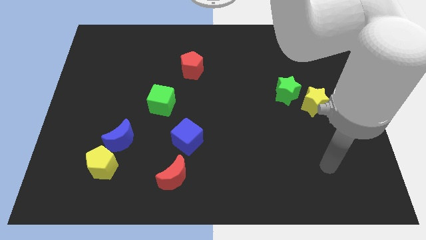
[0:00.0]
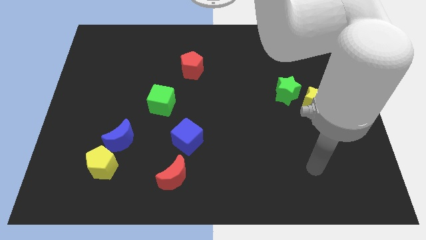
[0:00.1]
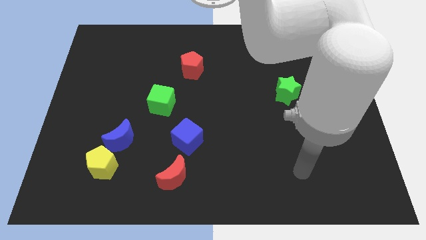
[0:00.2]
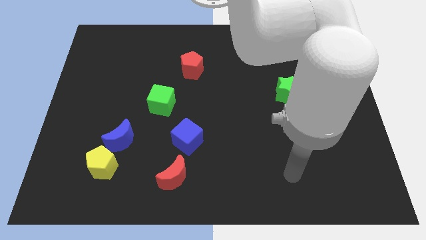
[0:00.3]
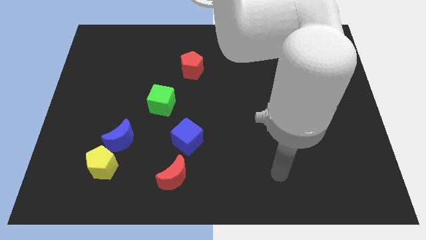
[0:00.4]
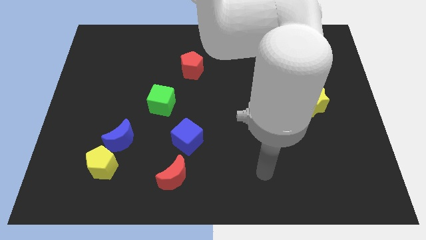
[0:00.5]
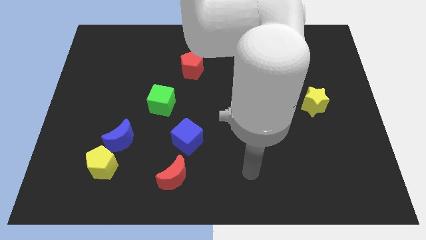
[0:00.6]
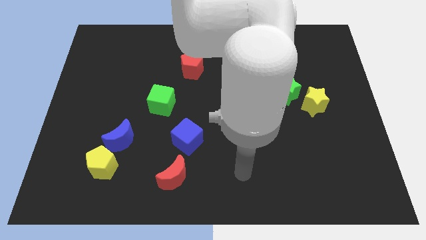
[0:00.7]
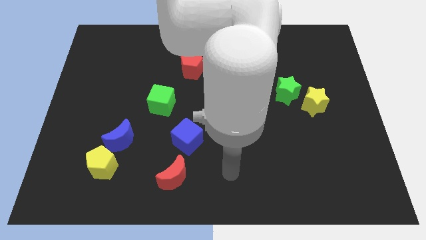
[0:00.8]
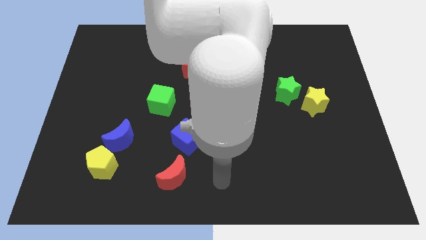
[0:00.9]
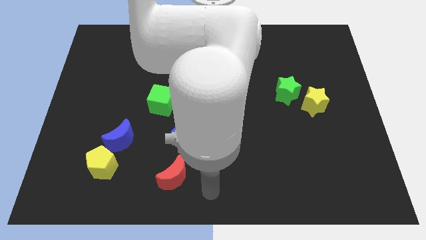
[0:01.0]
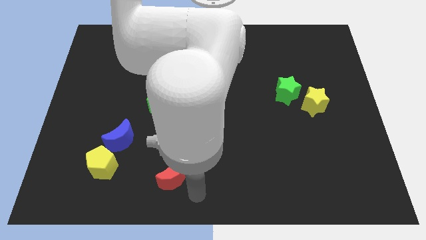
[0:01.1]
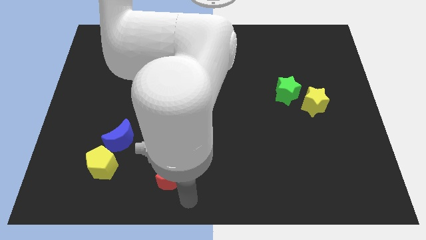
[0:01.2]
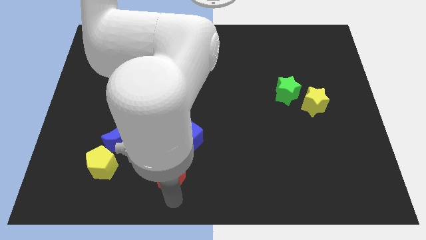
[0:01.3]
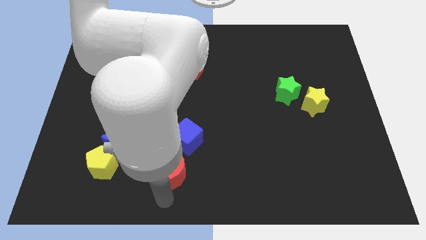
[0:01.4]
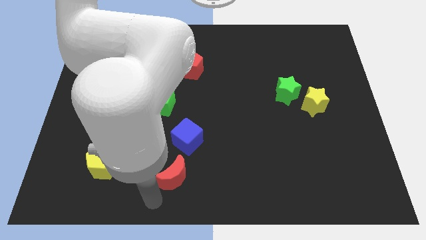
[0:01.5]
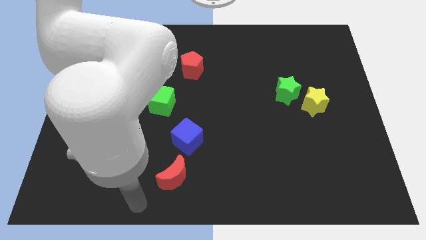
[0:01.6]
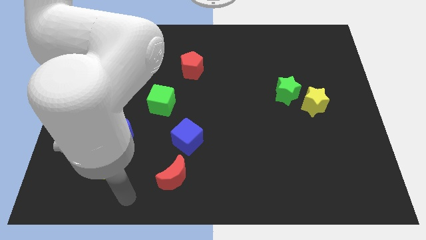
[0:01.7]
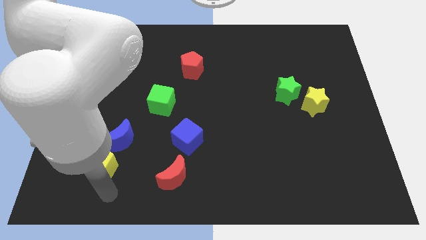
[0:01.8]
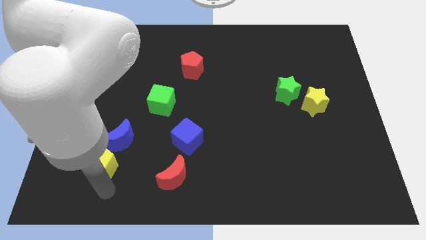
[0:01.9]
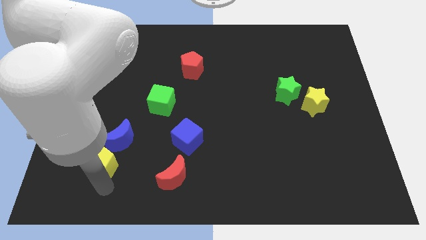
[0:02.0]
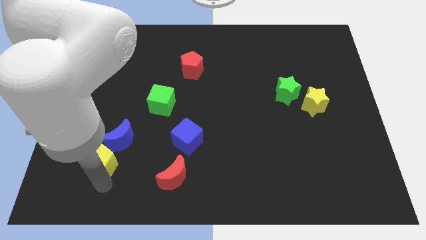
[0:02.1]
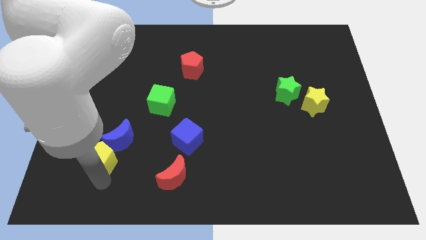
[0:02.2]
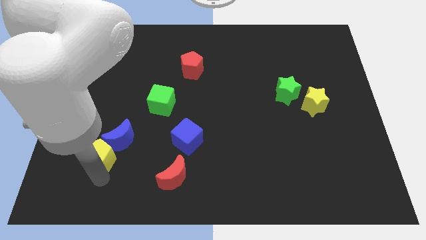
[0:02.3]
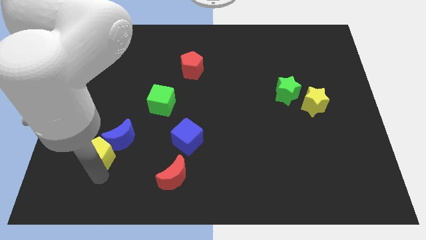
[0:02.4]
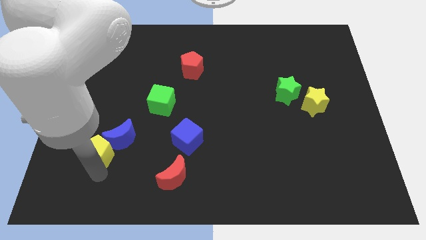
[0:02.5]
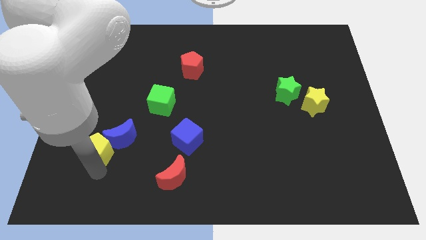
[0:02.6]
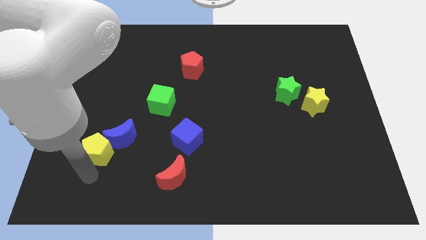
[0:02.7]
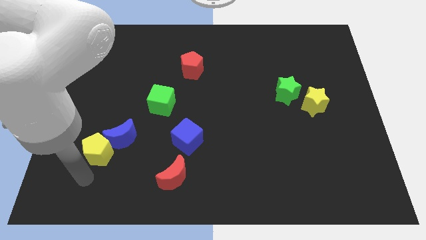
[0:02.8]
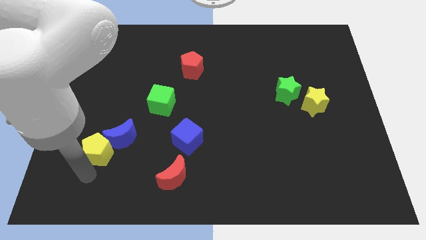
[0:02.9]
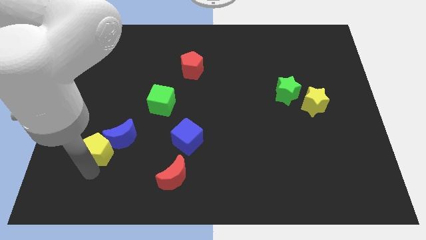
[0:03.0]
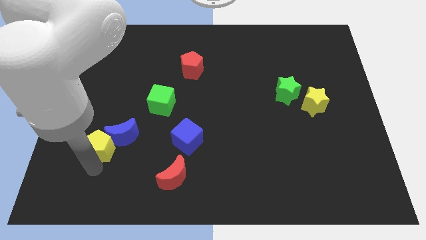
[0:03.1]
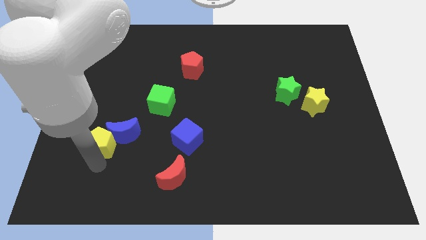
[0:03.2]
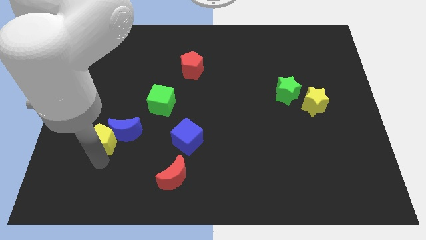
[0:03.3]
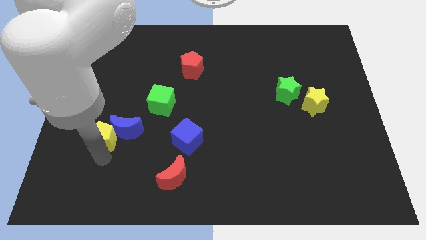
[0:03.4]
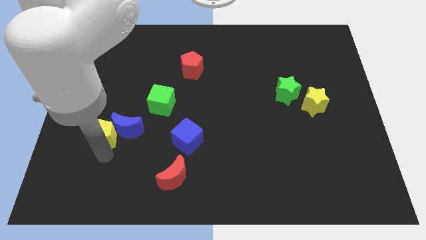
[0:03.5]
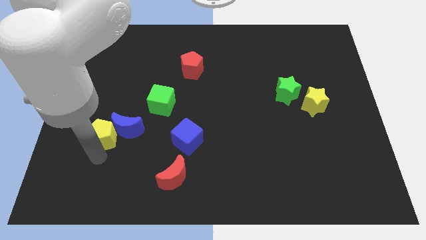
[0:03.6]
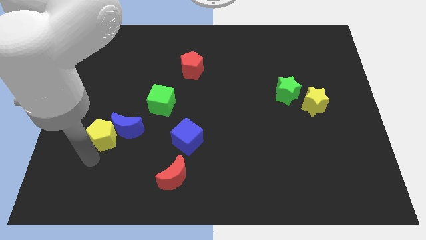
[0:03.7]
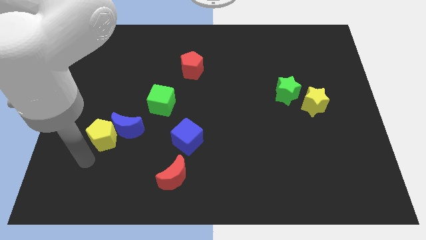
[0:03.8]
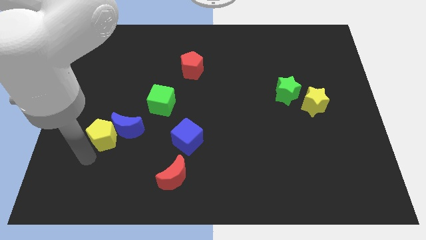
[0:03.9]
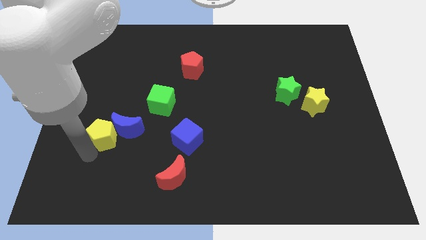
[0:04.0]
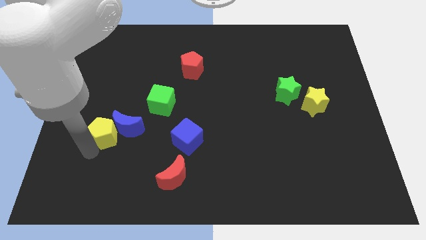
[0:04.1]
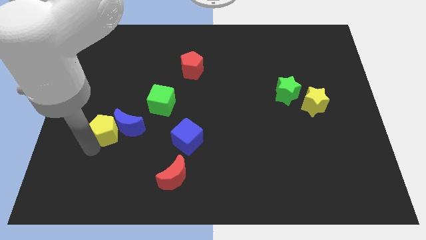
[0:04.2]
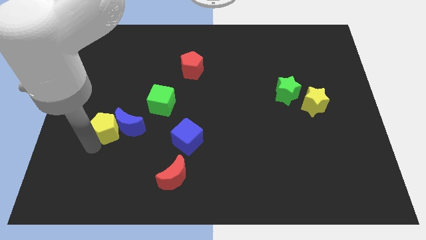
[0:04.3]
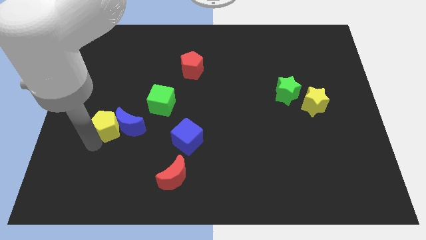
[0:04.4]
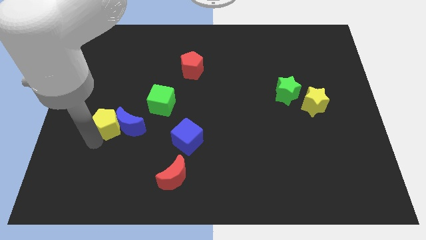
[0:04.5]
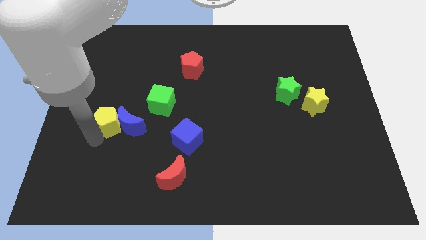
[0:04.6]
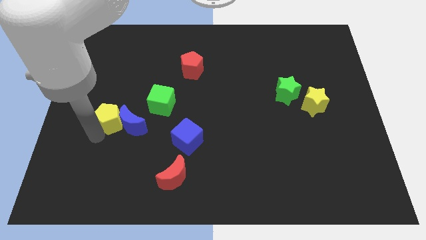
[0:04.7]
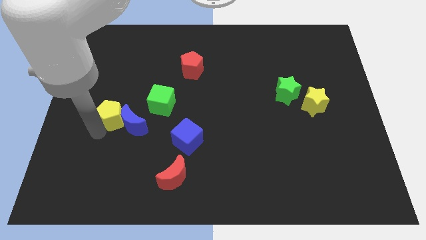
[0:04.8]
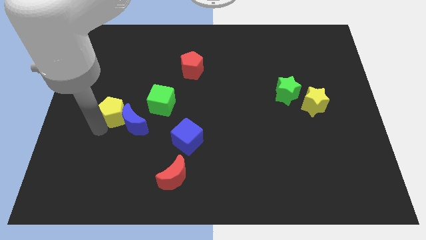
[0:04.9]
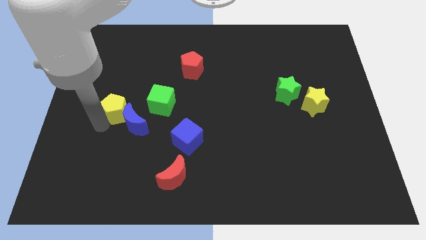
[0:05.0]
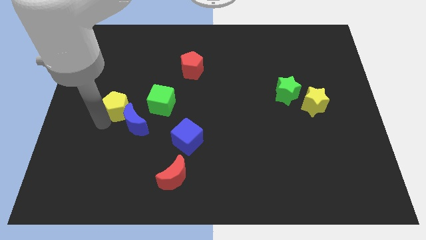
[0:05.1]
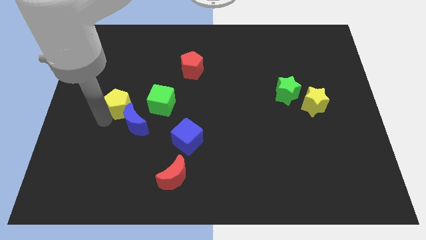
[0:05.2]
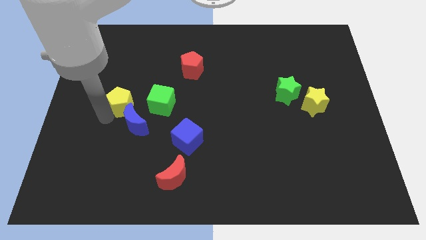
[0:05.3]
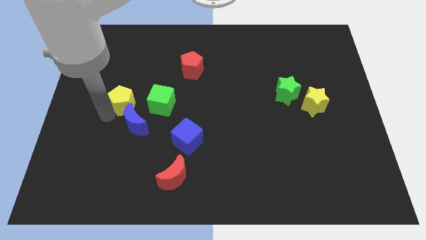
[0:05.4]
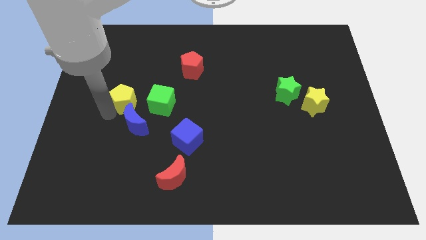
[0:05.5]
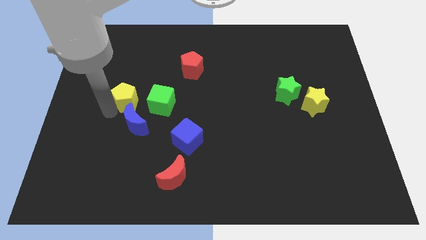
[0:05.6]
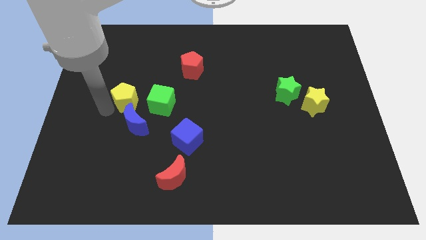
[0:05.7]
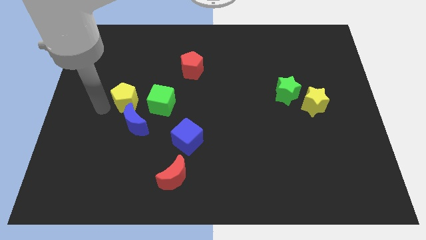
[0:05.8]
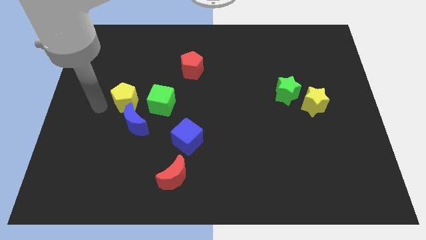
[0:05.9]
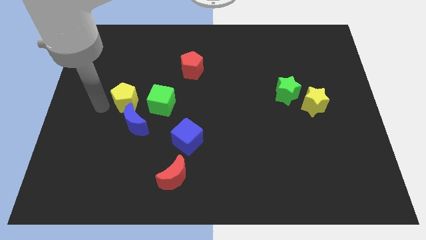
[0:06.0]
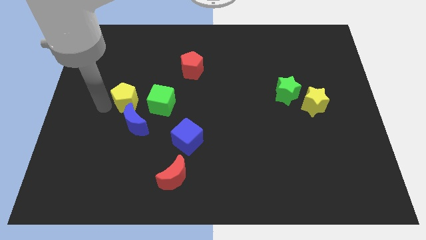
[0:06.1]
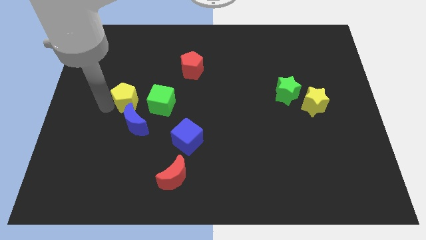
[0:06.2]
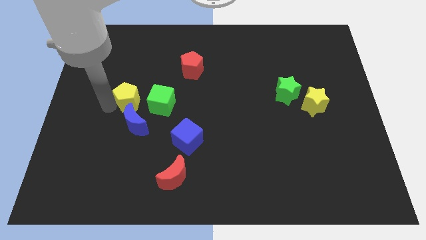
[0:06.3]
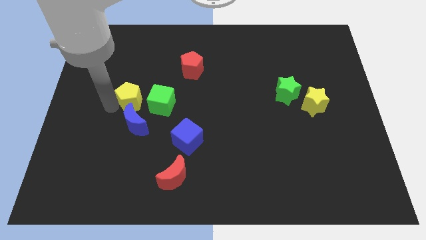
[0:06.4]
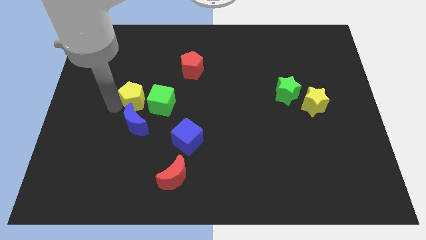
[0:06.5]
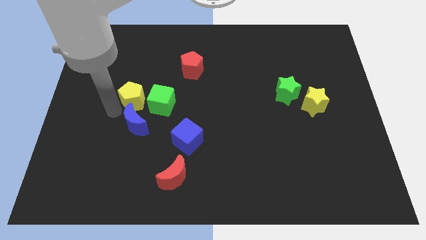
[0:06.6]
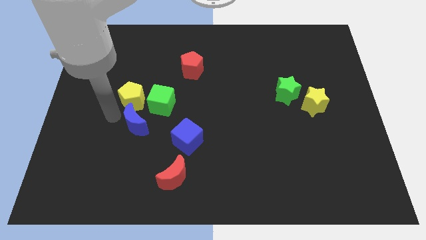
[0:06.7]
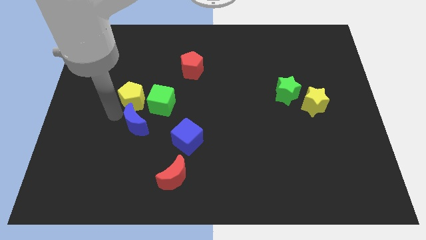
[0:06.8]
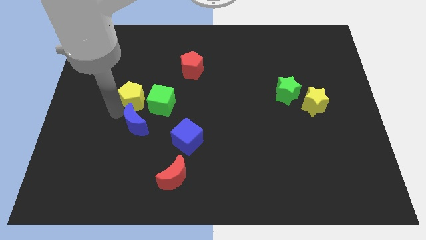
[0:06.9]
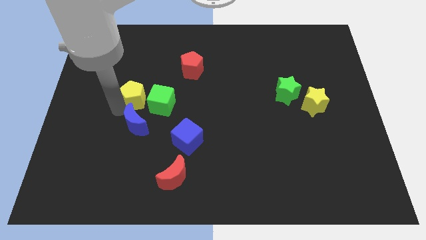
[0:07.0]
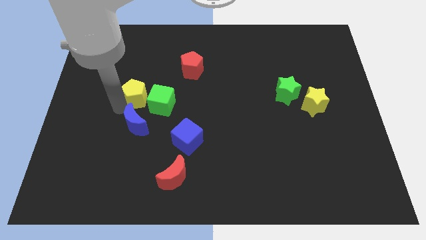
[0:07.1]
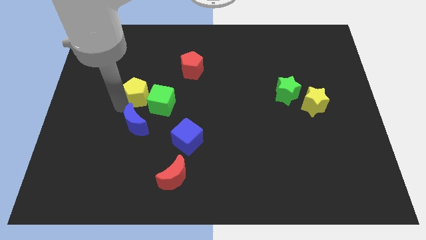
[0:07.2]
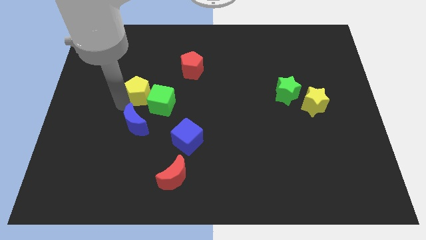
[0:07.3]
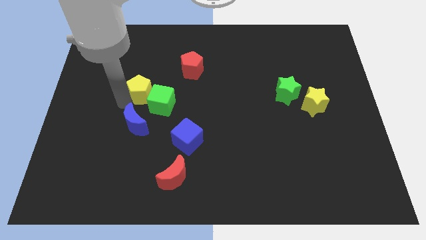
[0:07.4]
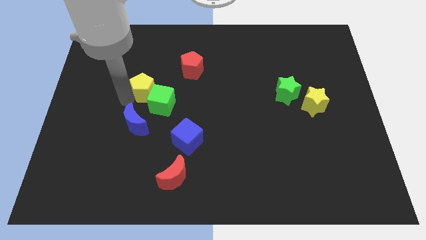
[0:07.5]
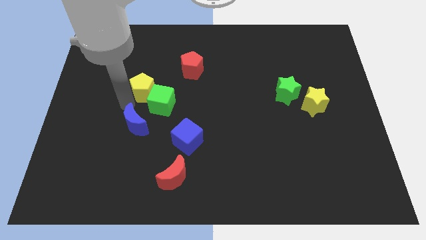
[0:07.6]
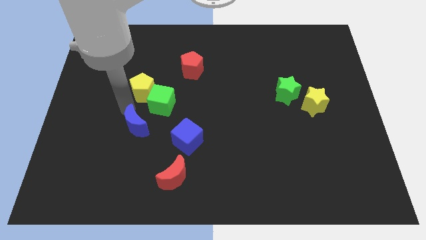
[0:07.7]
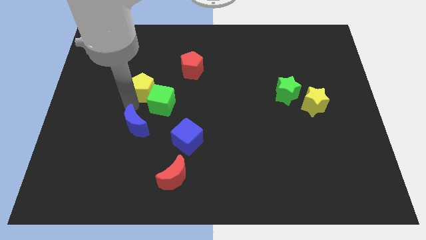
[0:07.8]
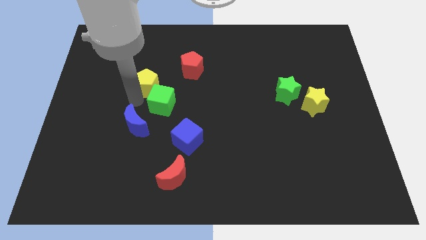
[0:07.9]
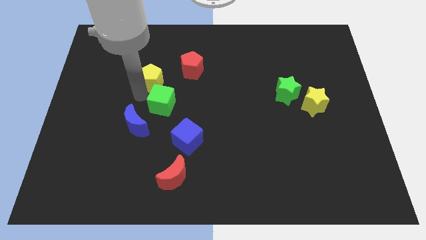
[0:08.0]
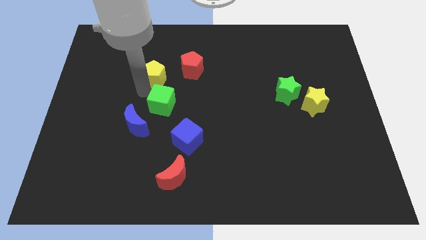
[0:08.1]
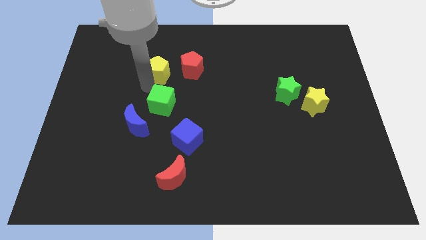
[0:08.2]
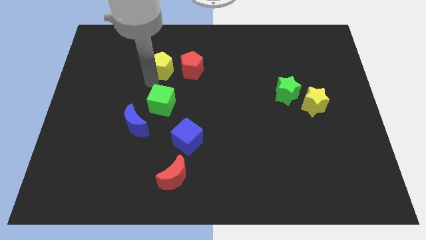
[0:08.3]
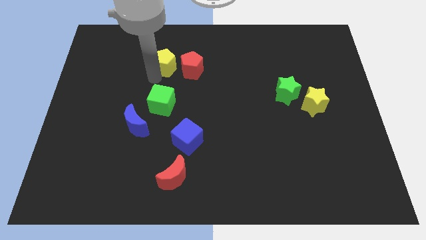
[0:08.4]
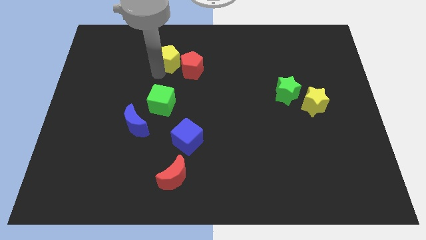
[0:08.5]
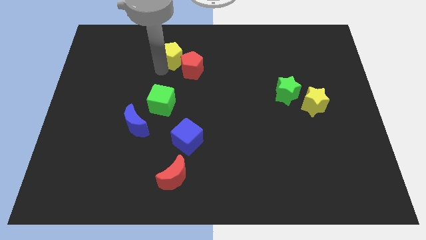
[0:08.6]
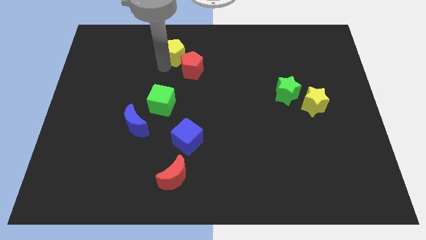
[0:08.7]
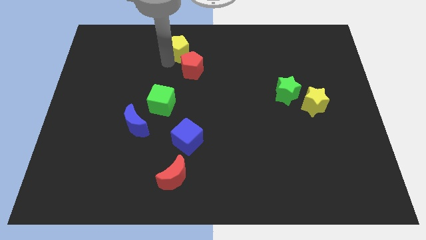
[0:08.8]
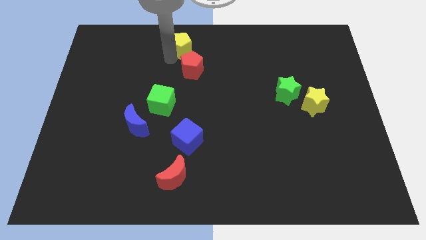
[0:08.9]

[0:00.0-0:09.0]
push the yellow pentagon to the top side
